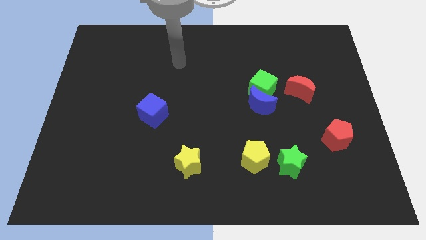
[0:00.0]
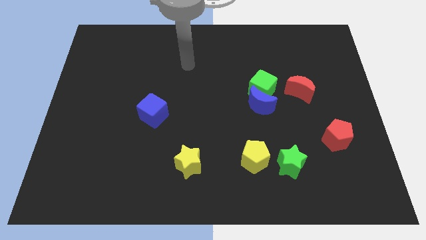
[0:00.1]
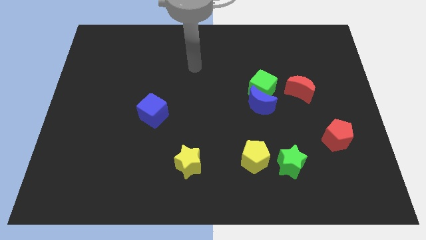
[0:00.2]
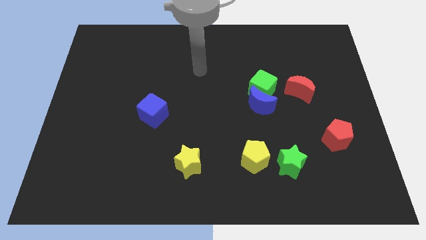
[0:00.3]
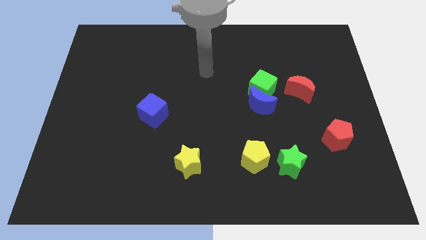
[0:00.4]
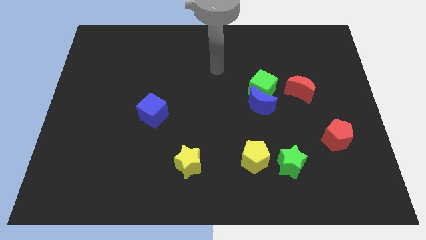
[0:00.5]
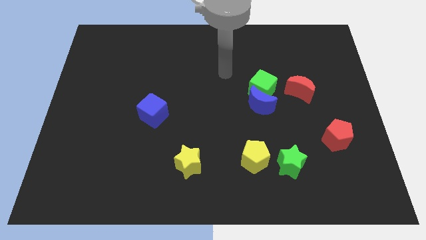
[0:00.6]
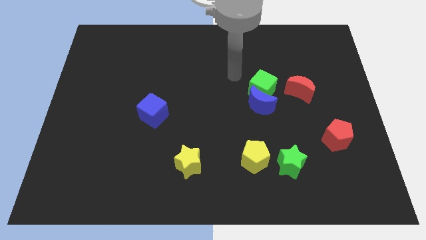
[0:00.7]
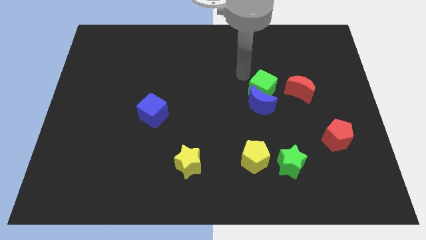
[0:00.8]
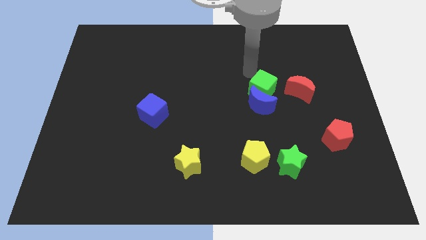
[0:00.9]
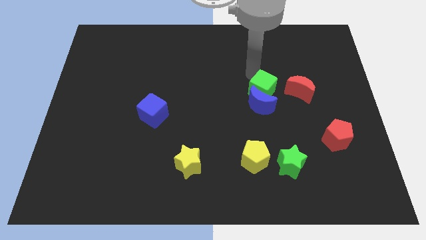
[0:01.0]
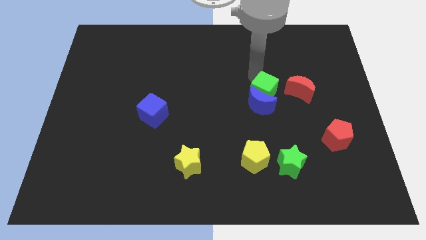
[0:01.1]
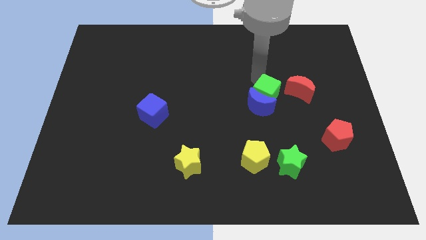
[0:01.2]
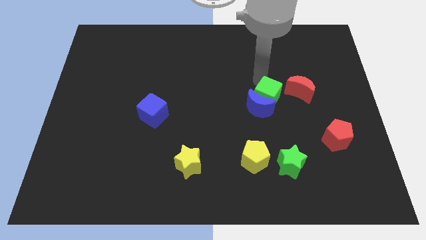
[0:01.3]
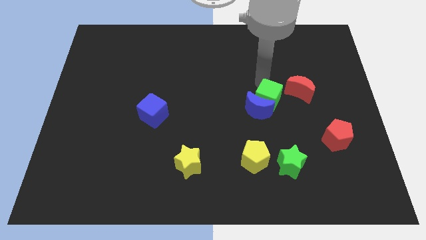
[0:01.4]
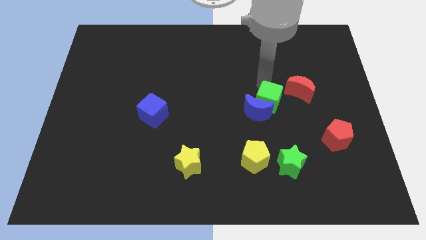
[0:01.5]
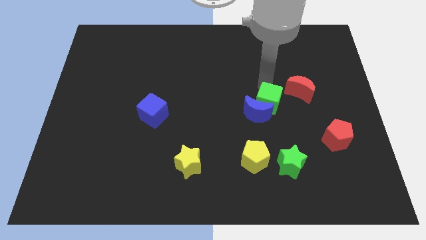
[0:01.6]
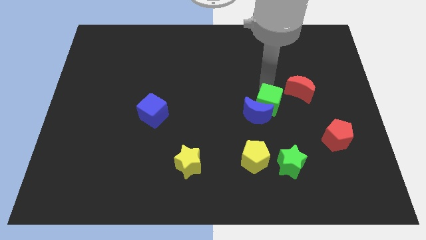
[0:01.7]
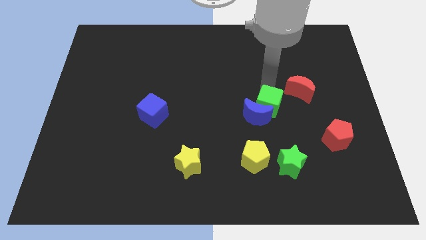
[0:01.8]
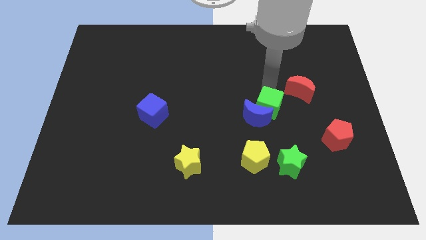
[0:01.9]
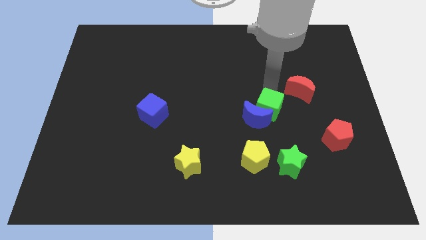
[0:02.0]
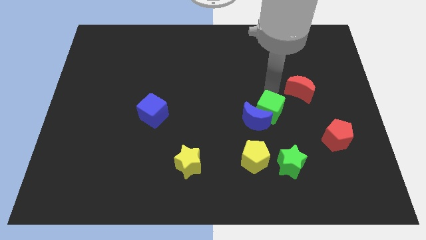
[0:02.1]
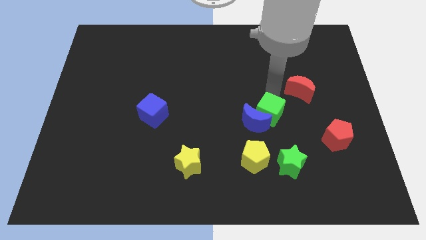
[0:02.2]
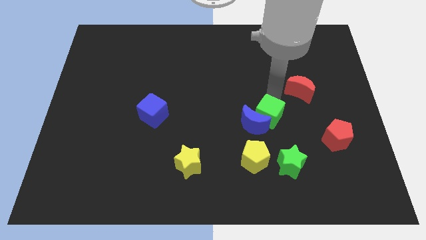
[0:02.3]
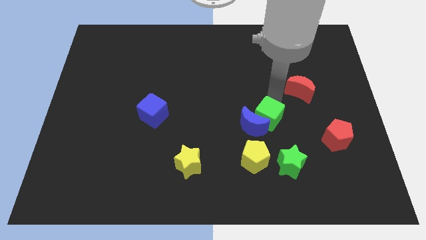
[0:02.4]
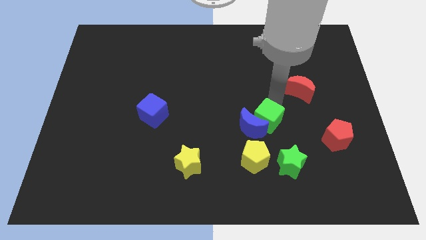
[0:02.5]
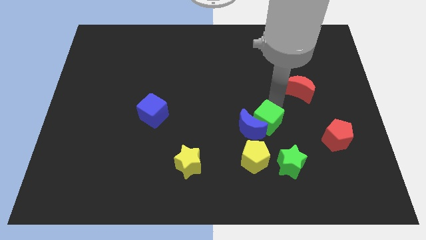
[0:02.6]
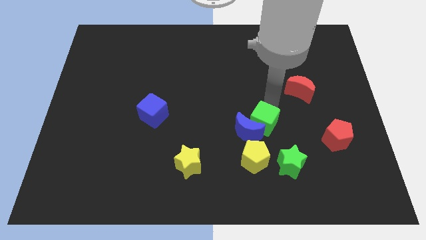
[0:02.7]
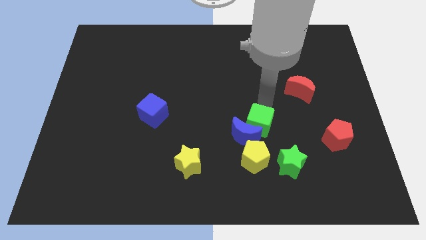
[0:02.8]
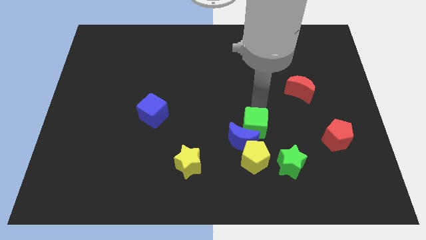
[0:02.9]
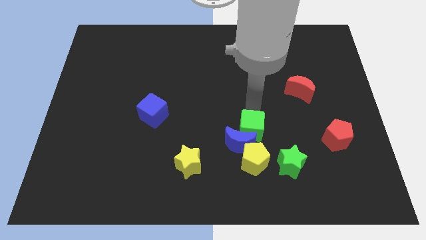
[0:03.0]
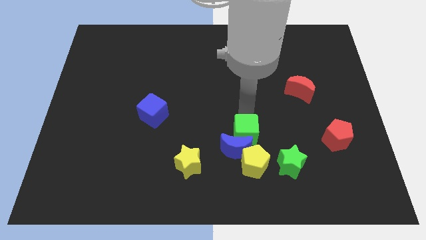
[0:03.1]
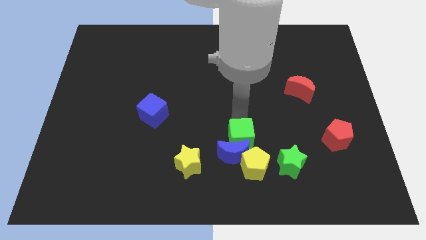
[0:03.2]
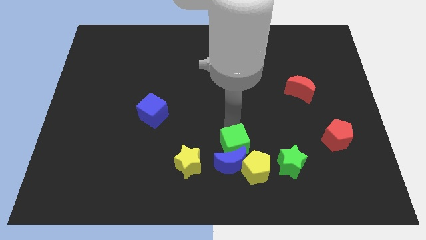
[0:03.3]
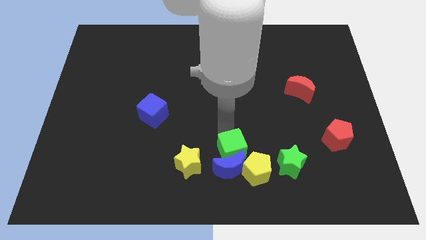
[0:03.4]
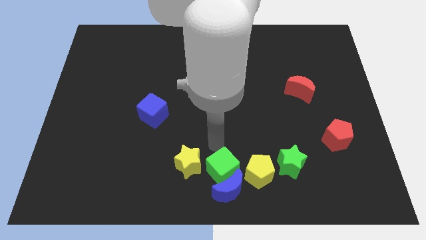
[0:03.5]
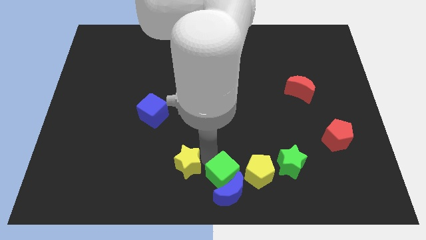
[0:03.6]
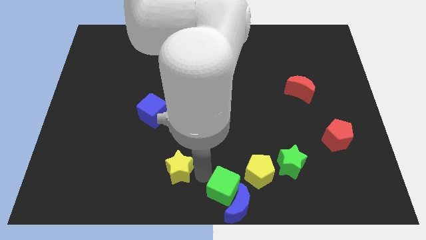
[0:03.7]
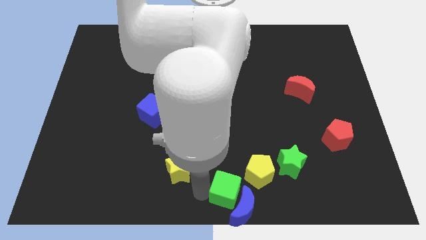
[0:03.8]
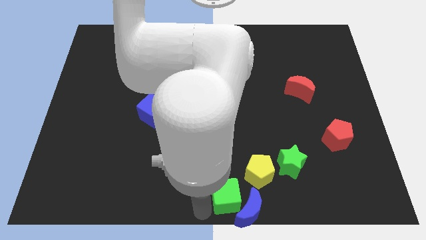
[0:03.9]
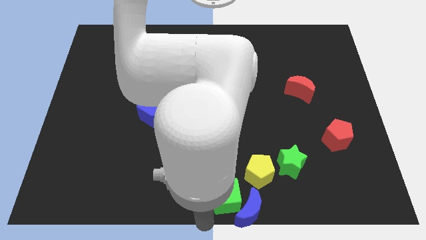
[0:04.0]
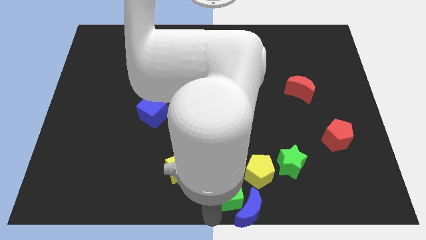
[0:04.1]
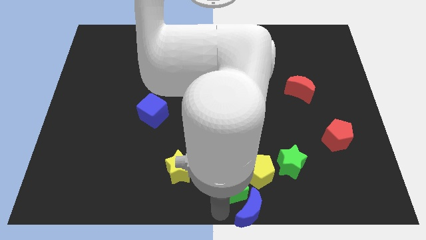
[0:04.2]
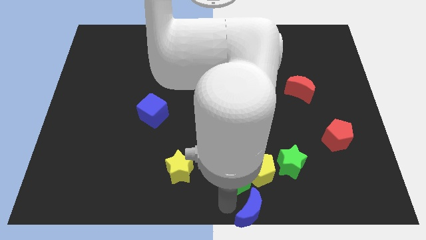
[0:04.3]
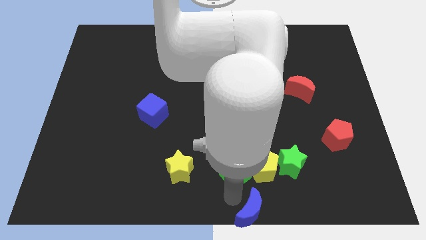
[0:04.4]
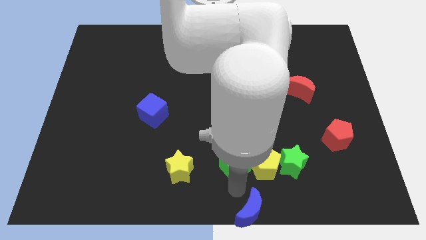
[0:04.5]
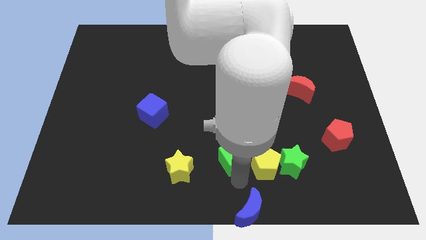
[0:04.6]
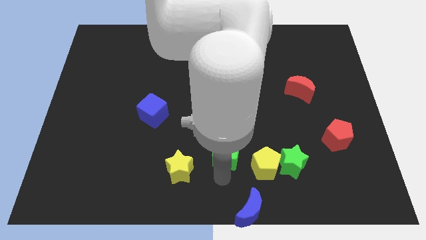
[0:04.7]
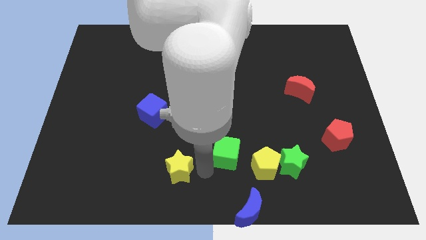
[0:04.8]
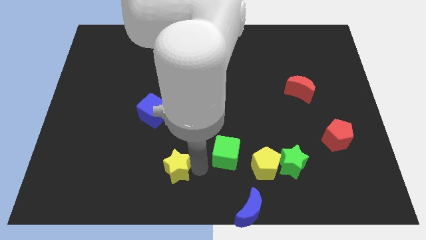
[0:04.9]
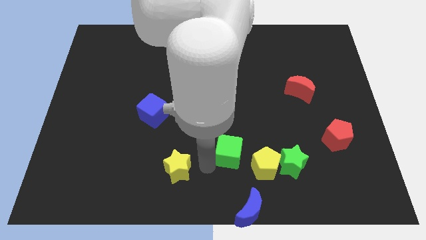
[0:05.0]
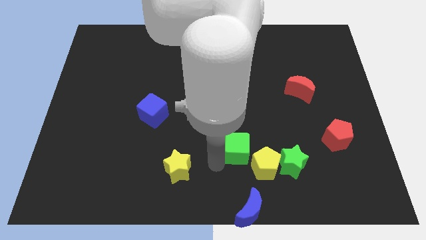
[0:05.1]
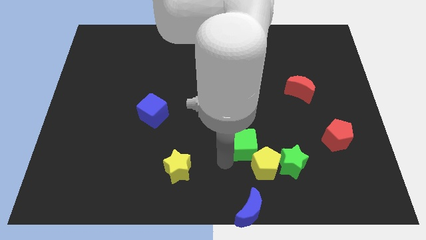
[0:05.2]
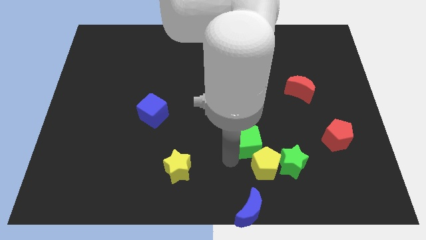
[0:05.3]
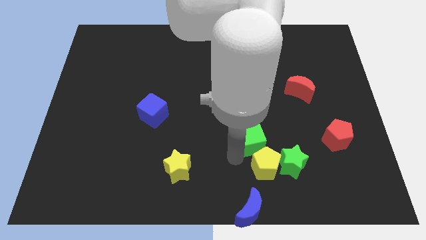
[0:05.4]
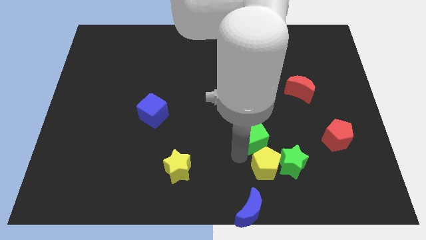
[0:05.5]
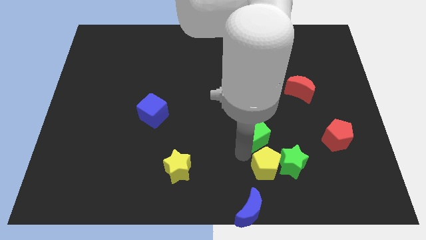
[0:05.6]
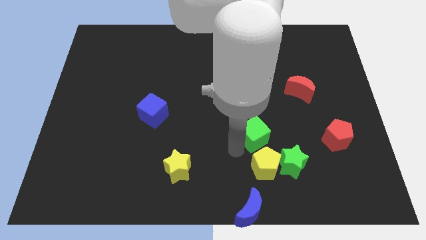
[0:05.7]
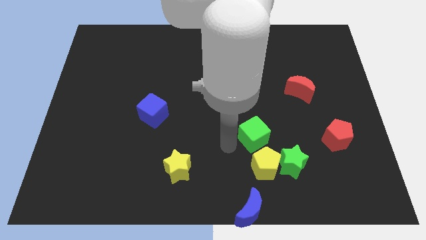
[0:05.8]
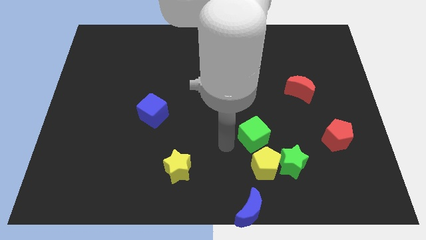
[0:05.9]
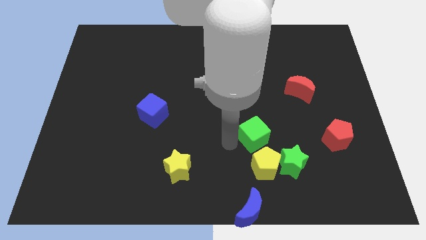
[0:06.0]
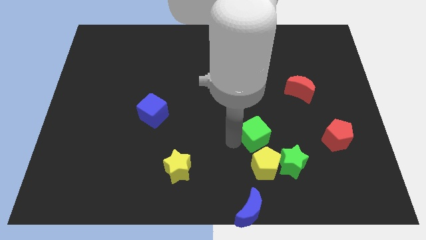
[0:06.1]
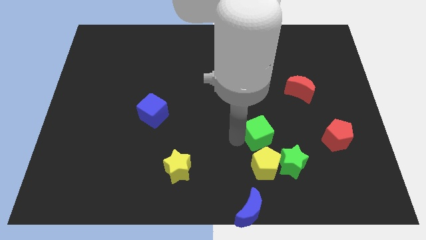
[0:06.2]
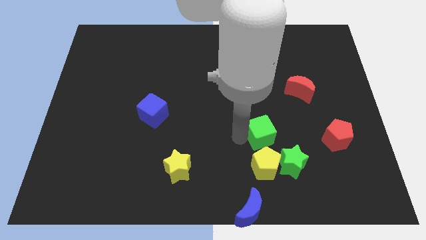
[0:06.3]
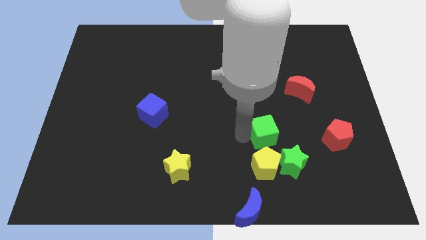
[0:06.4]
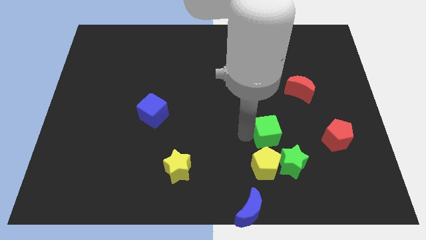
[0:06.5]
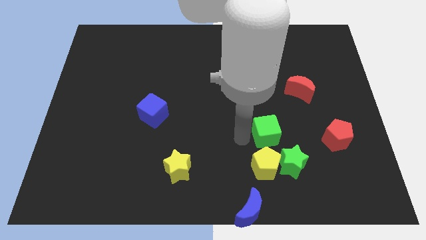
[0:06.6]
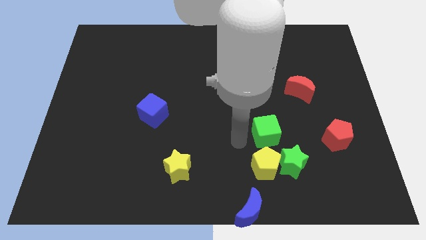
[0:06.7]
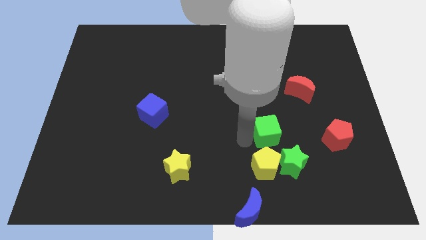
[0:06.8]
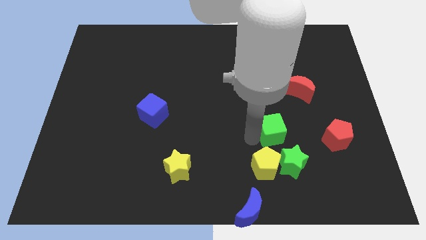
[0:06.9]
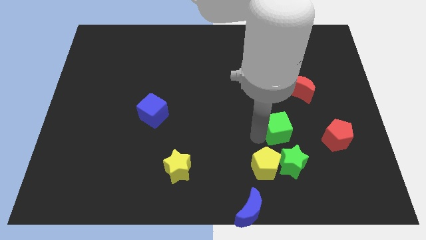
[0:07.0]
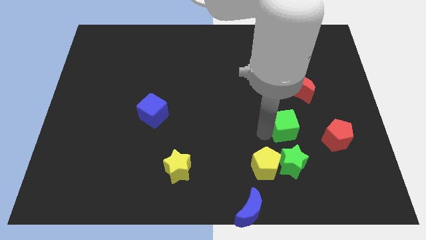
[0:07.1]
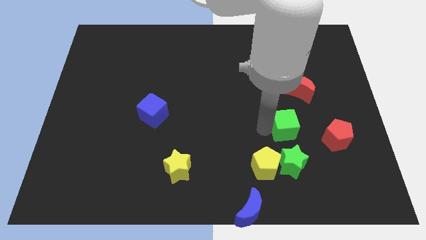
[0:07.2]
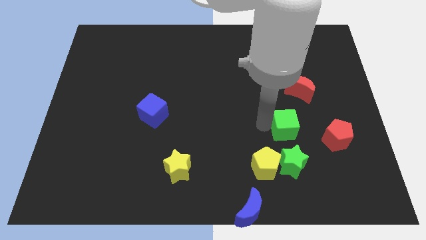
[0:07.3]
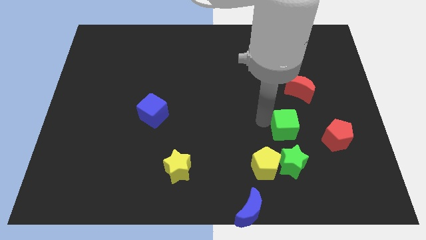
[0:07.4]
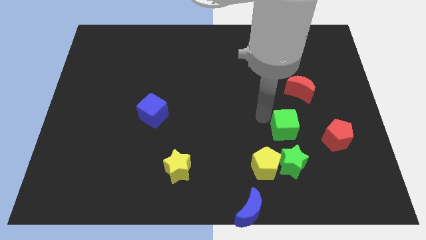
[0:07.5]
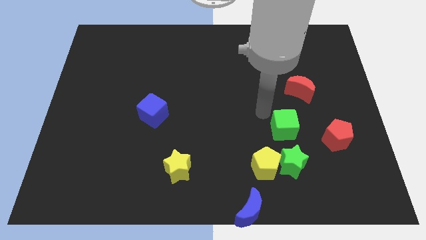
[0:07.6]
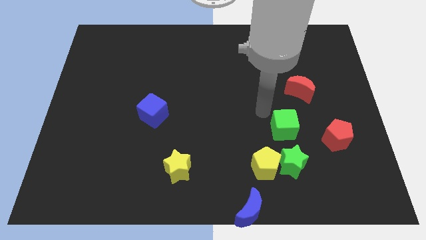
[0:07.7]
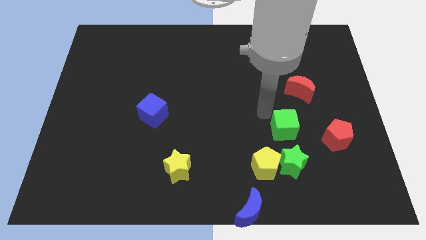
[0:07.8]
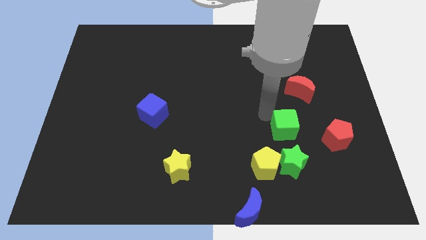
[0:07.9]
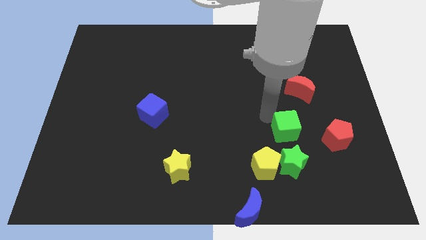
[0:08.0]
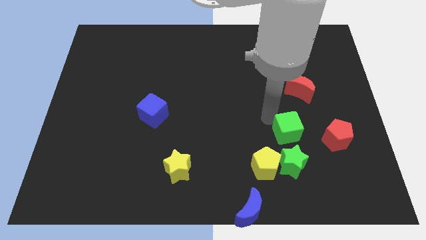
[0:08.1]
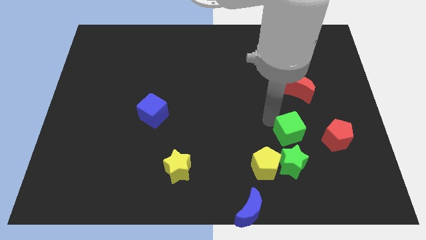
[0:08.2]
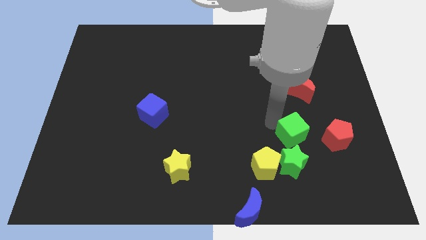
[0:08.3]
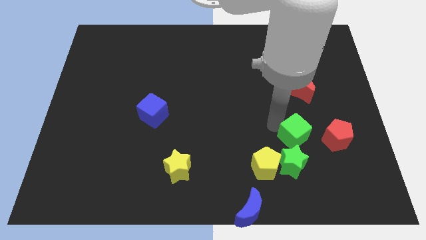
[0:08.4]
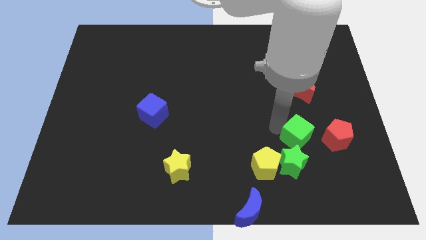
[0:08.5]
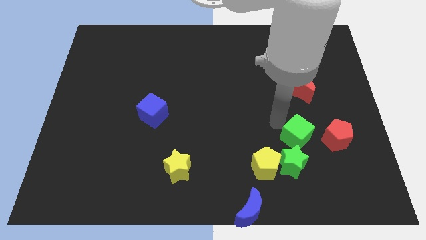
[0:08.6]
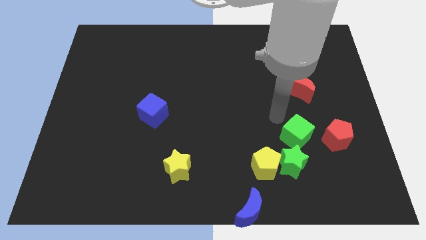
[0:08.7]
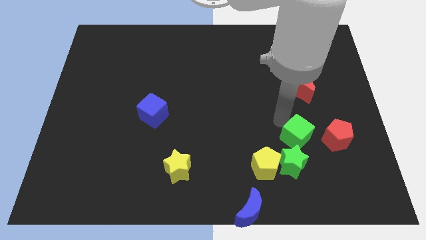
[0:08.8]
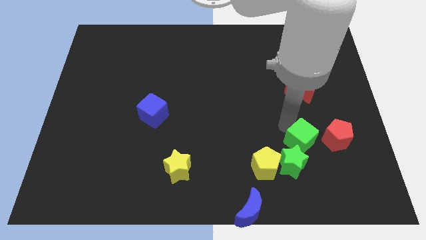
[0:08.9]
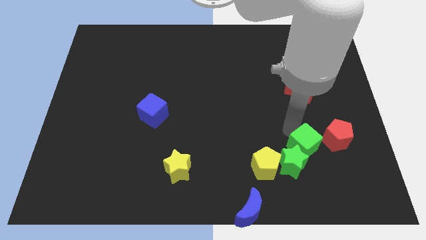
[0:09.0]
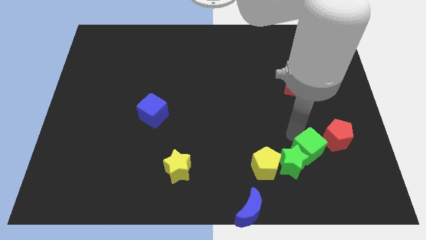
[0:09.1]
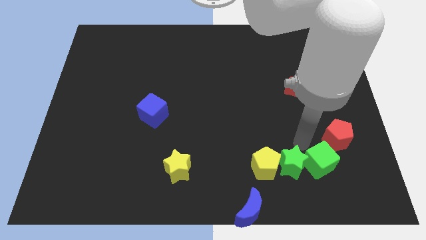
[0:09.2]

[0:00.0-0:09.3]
move the green cube below the red pentagon
